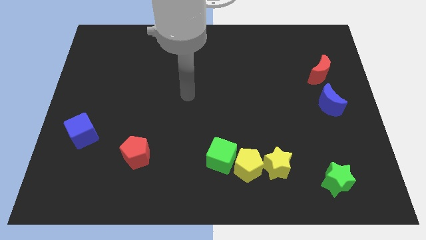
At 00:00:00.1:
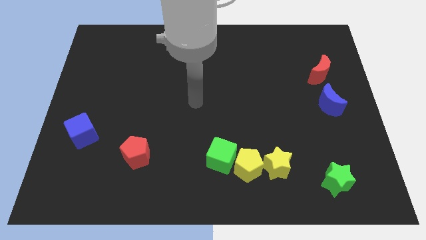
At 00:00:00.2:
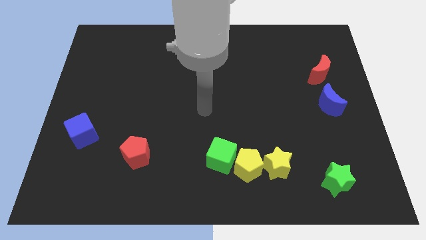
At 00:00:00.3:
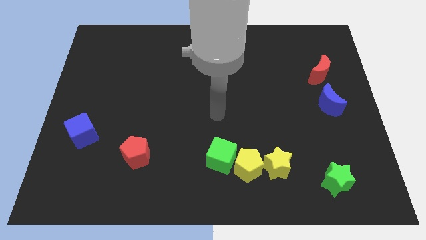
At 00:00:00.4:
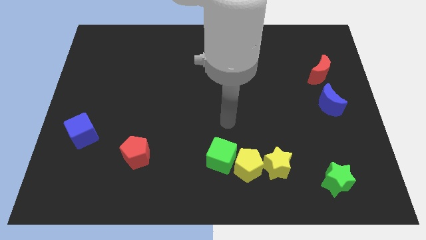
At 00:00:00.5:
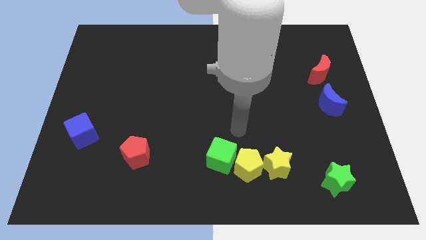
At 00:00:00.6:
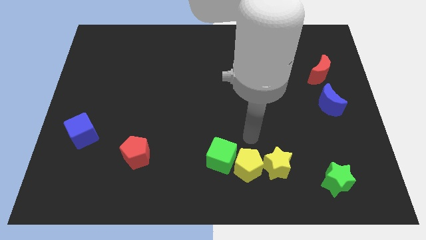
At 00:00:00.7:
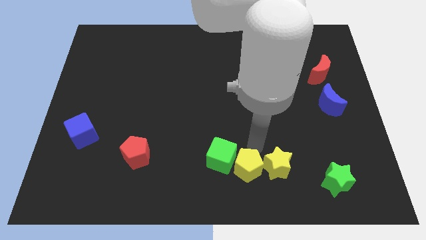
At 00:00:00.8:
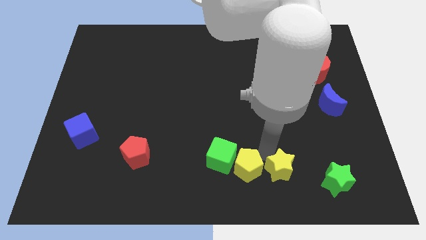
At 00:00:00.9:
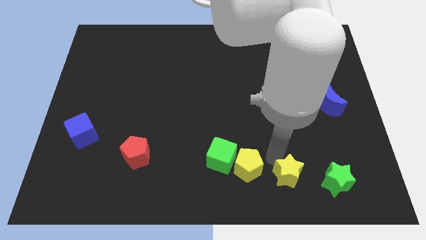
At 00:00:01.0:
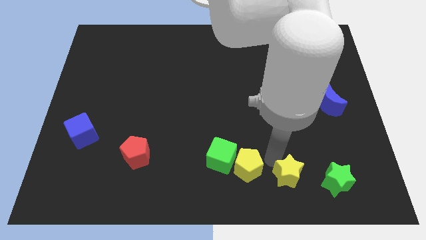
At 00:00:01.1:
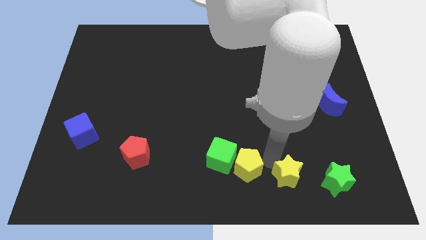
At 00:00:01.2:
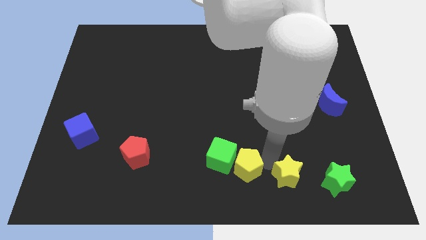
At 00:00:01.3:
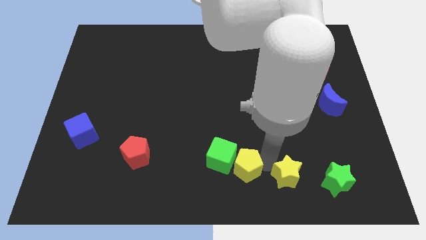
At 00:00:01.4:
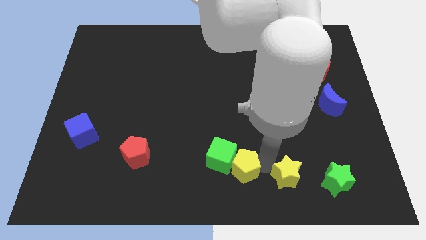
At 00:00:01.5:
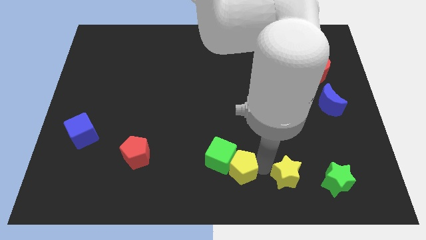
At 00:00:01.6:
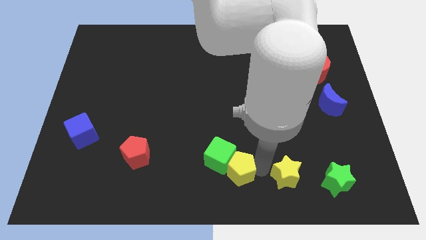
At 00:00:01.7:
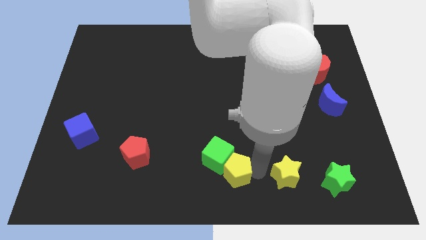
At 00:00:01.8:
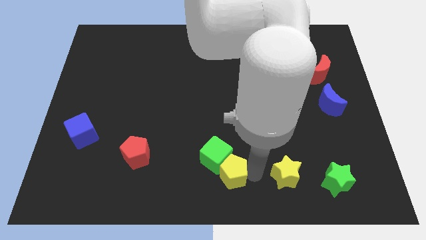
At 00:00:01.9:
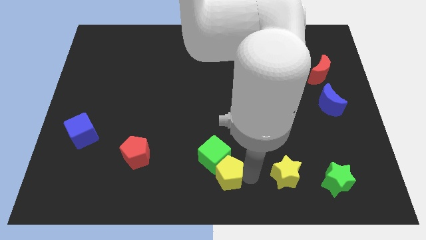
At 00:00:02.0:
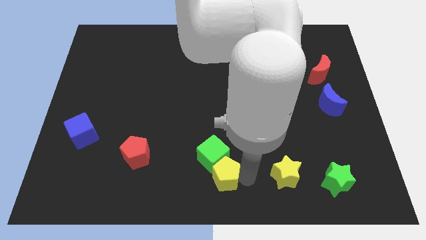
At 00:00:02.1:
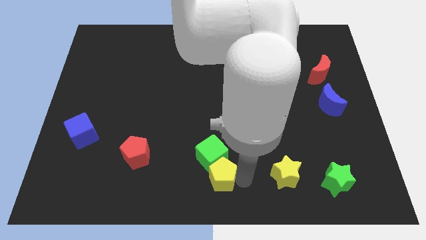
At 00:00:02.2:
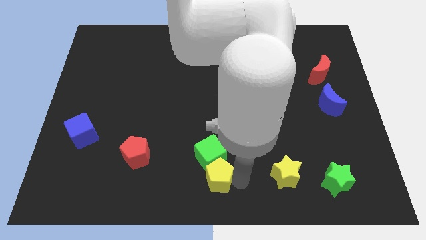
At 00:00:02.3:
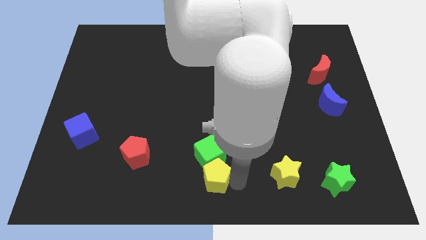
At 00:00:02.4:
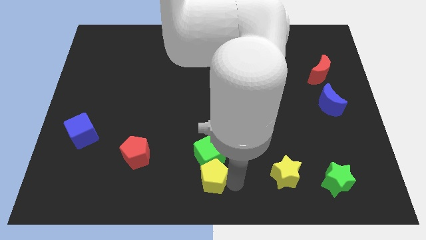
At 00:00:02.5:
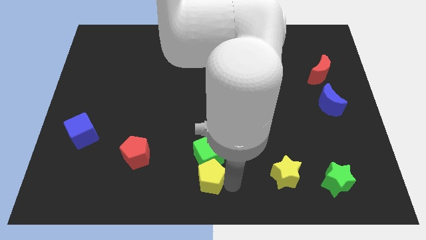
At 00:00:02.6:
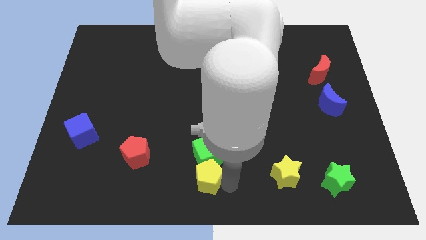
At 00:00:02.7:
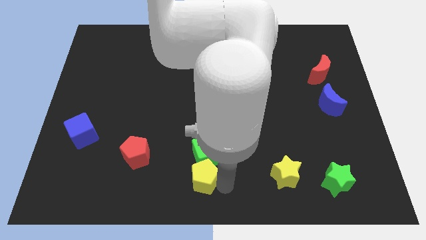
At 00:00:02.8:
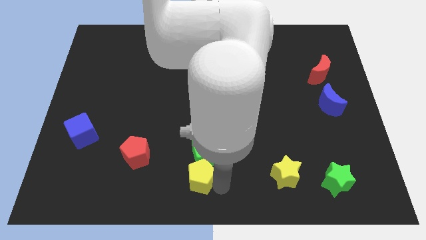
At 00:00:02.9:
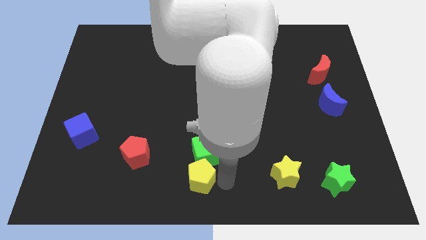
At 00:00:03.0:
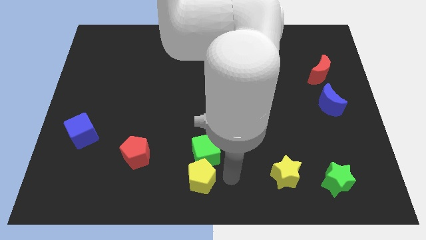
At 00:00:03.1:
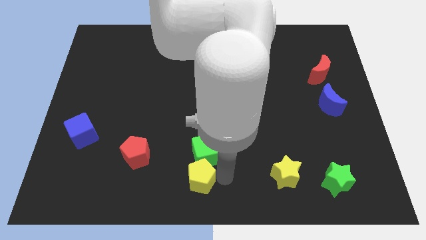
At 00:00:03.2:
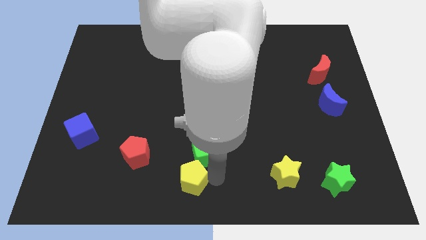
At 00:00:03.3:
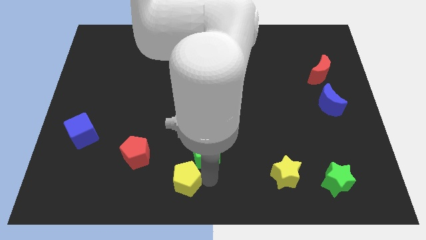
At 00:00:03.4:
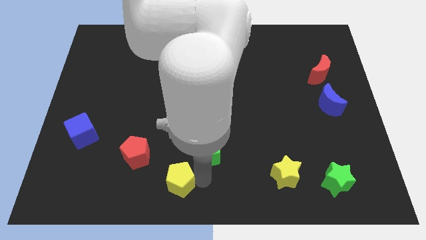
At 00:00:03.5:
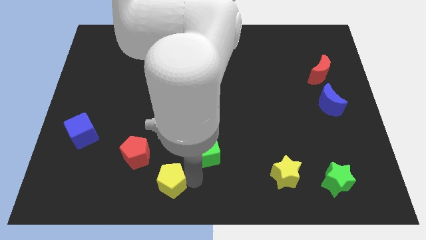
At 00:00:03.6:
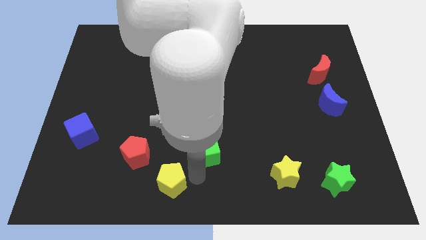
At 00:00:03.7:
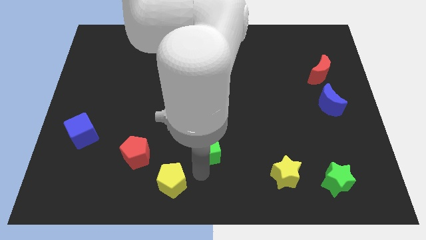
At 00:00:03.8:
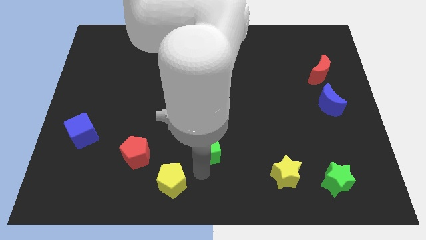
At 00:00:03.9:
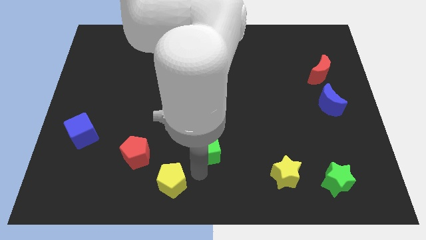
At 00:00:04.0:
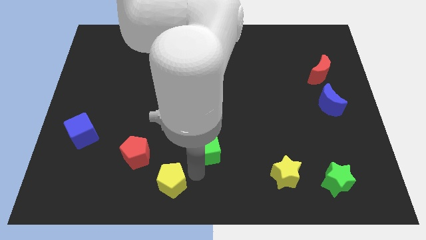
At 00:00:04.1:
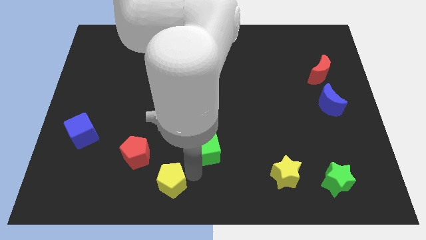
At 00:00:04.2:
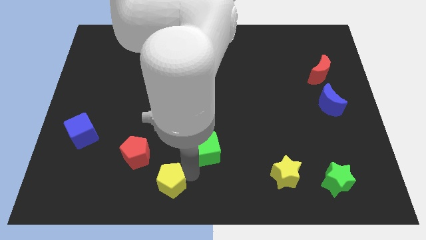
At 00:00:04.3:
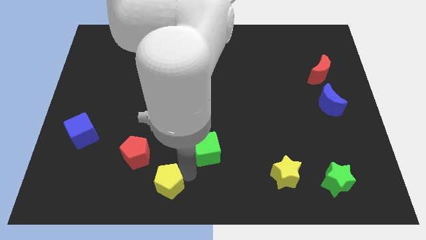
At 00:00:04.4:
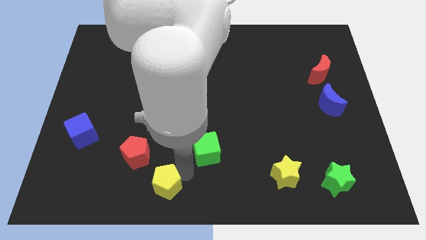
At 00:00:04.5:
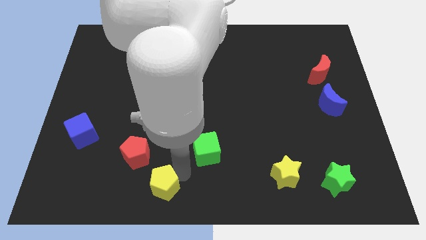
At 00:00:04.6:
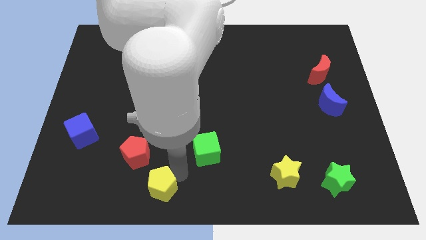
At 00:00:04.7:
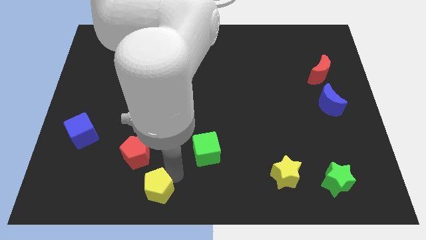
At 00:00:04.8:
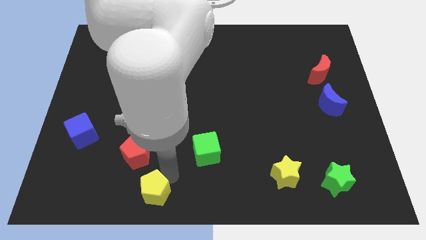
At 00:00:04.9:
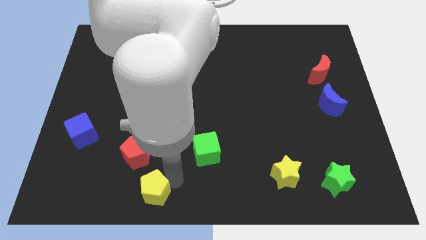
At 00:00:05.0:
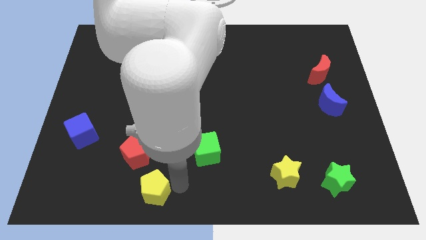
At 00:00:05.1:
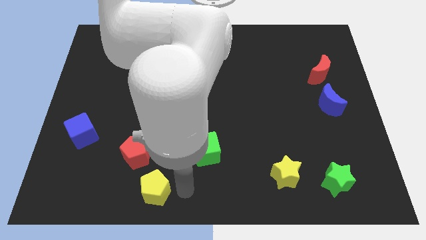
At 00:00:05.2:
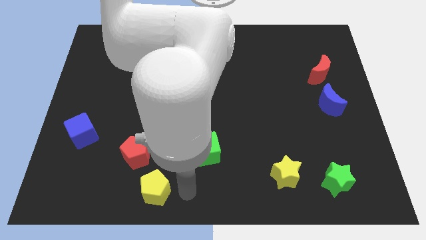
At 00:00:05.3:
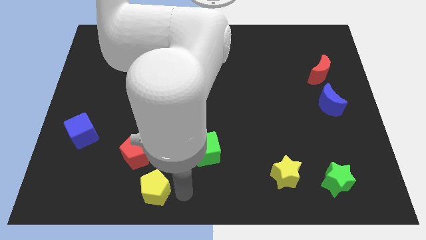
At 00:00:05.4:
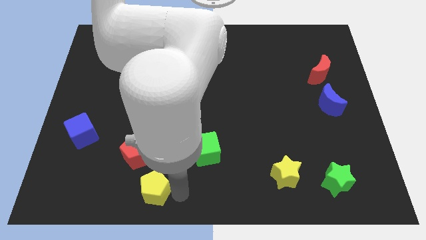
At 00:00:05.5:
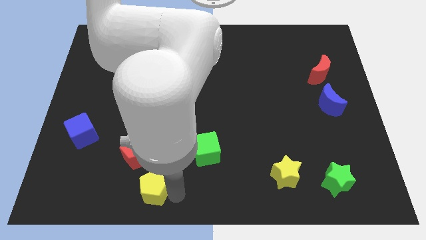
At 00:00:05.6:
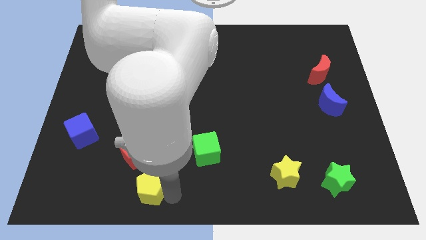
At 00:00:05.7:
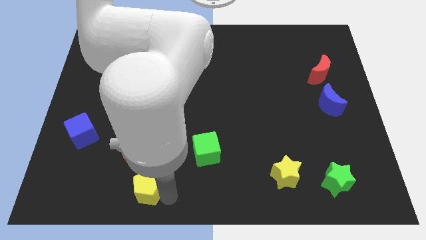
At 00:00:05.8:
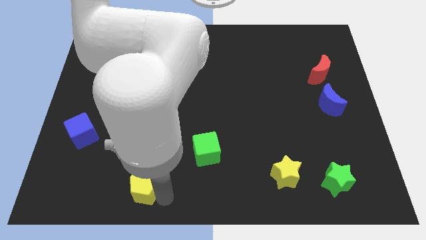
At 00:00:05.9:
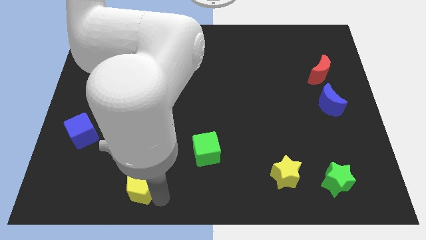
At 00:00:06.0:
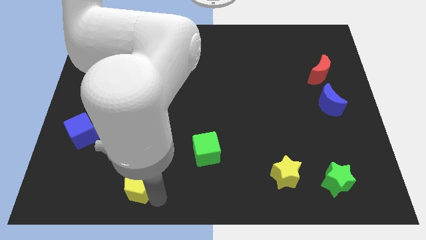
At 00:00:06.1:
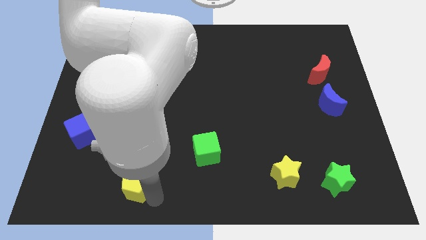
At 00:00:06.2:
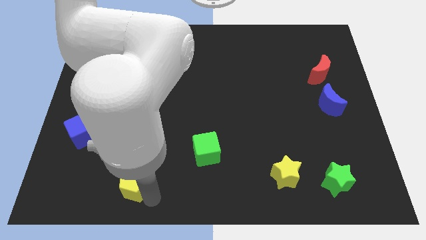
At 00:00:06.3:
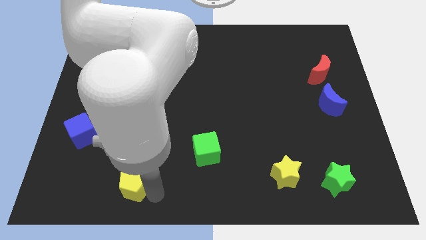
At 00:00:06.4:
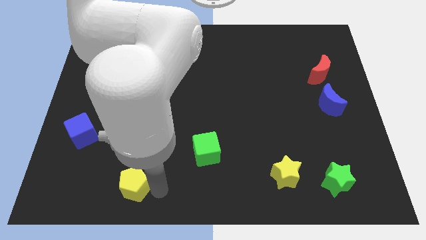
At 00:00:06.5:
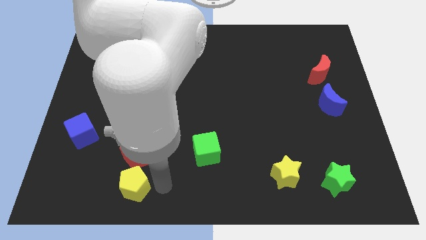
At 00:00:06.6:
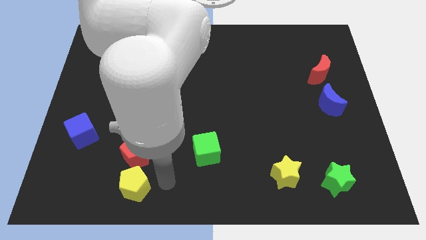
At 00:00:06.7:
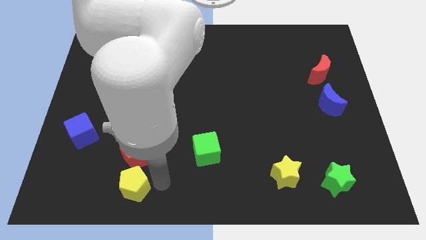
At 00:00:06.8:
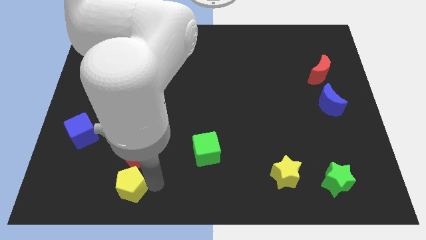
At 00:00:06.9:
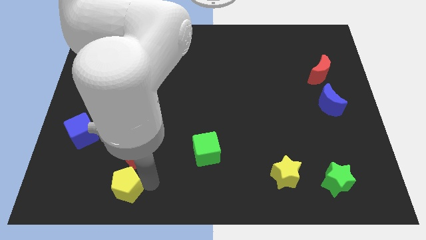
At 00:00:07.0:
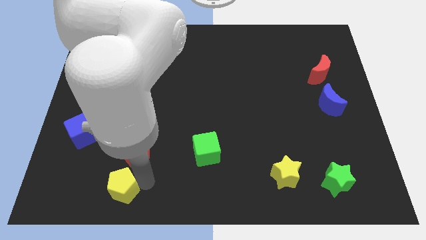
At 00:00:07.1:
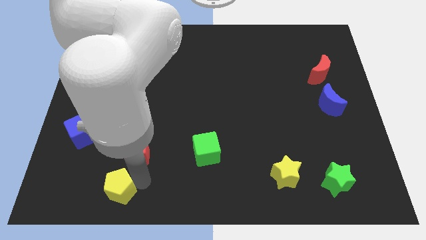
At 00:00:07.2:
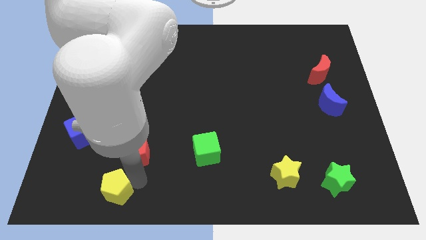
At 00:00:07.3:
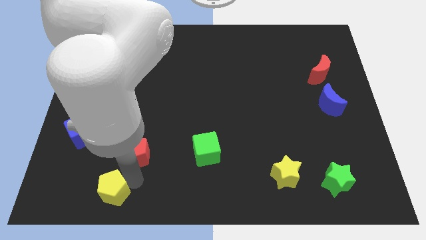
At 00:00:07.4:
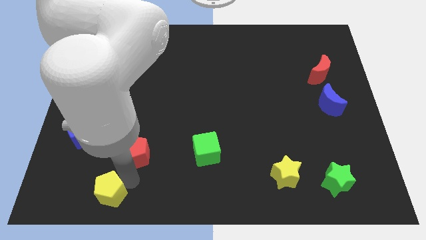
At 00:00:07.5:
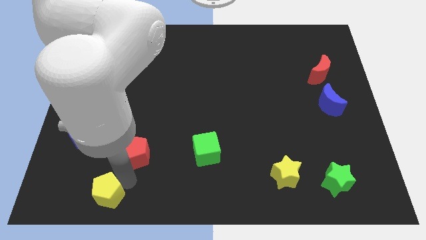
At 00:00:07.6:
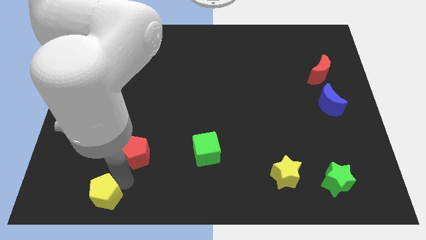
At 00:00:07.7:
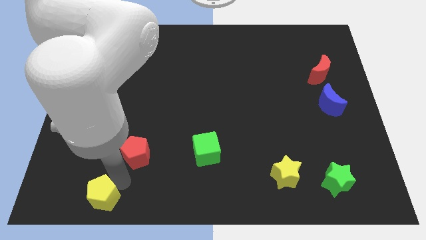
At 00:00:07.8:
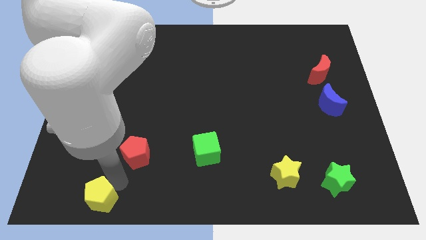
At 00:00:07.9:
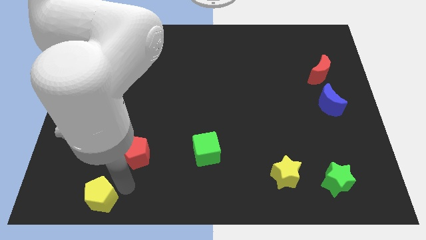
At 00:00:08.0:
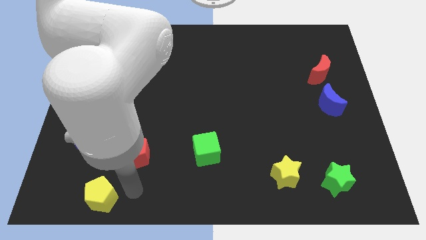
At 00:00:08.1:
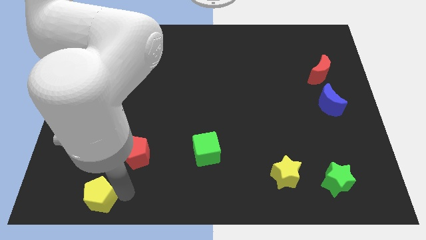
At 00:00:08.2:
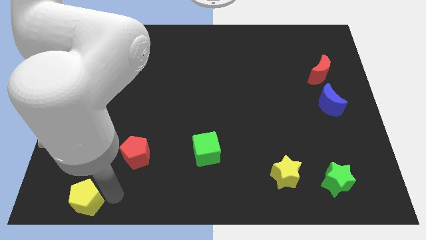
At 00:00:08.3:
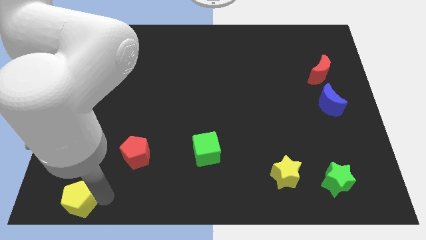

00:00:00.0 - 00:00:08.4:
put the yellow pentagon to the bottom left of the board
